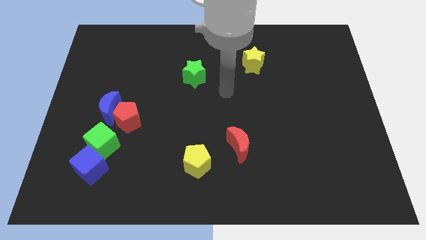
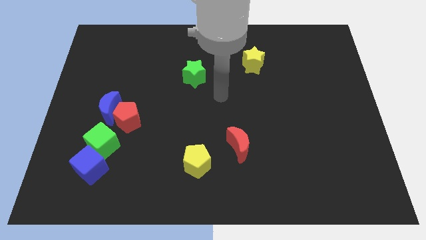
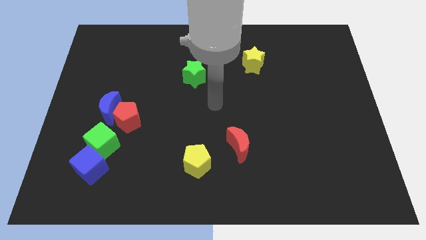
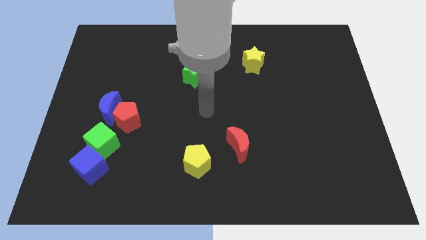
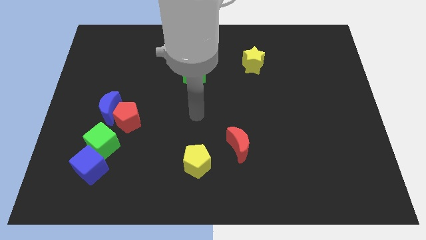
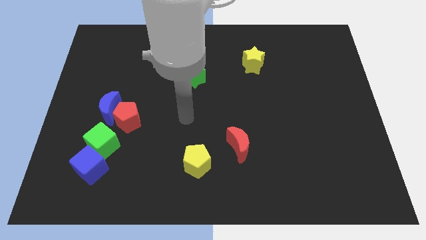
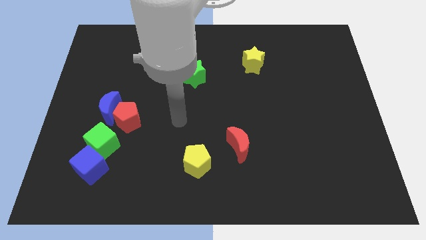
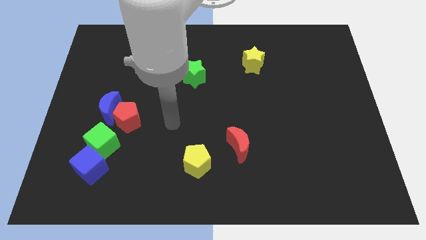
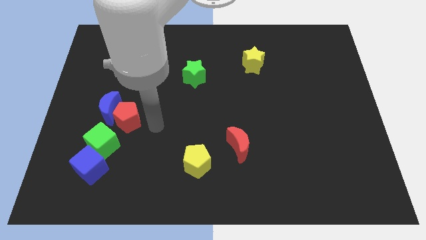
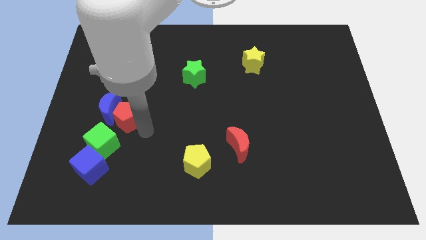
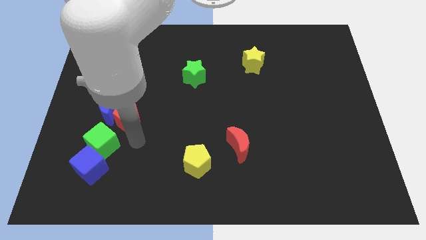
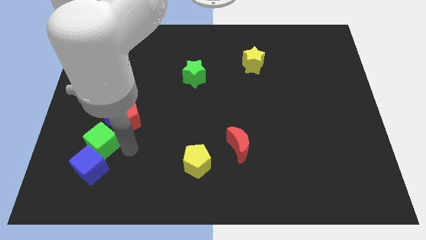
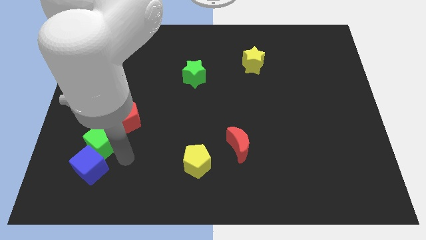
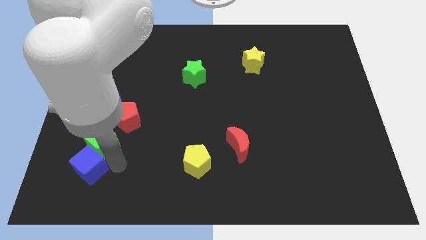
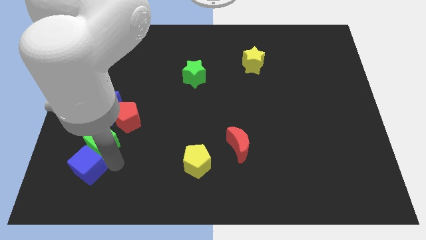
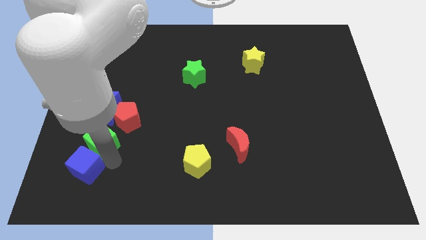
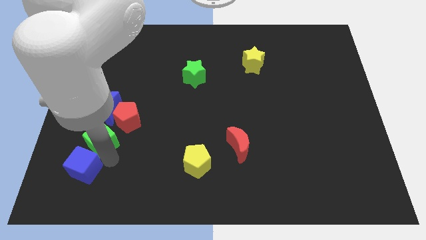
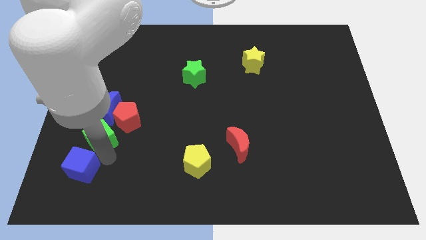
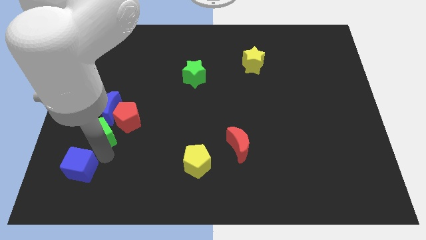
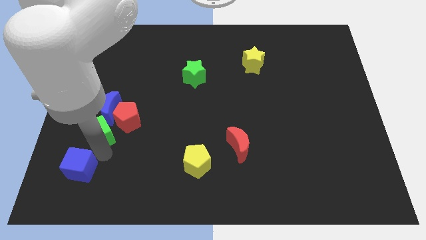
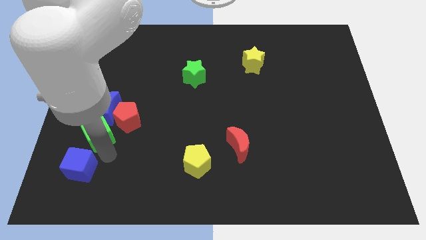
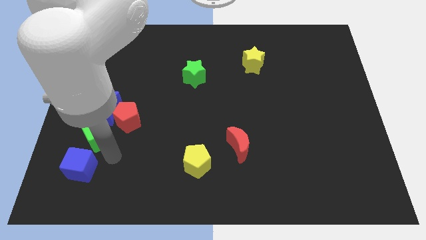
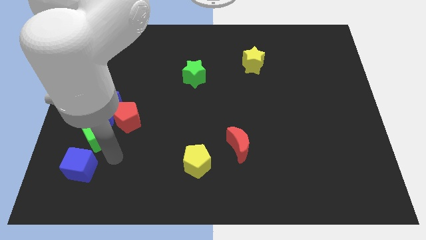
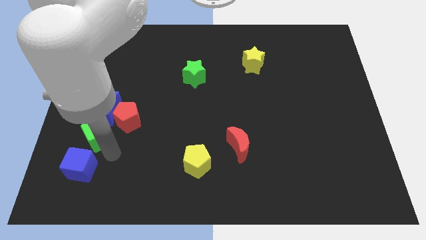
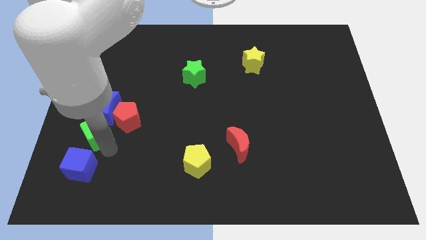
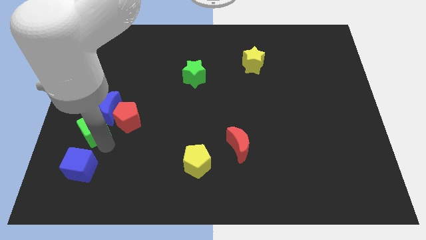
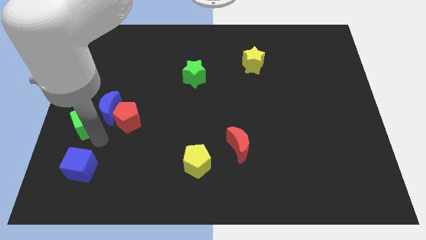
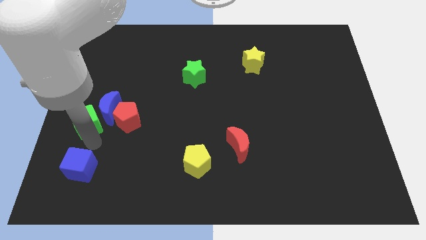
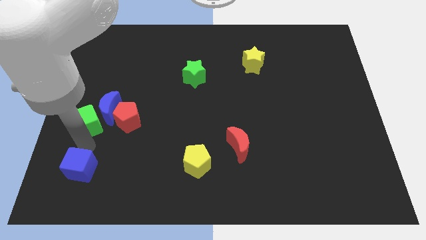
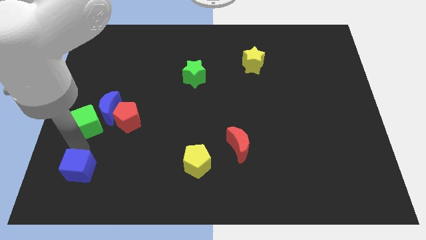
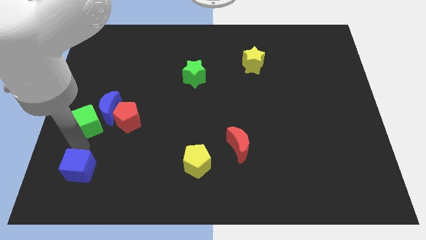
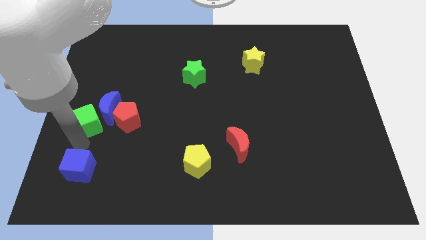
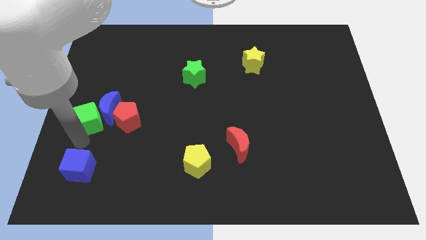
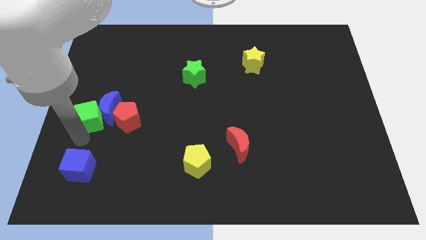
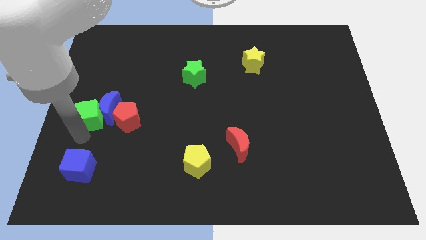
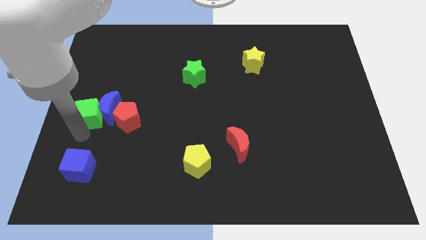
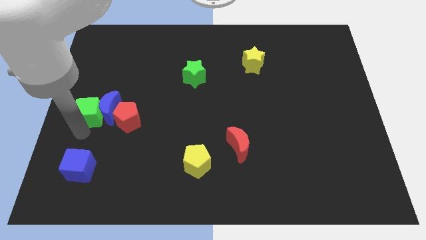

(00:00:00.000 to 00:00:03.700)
push the green cube upwards a little bit

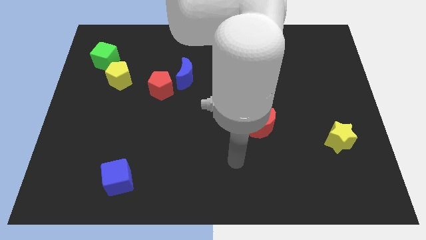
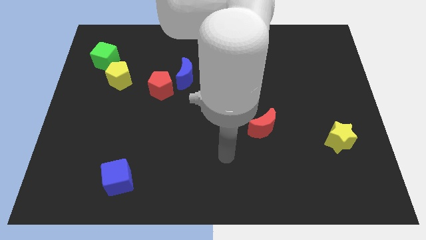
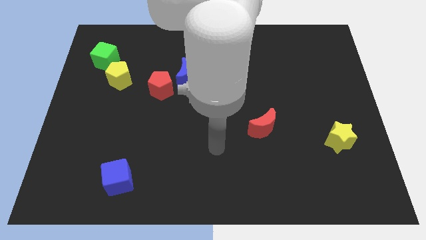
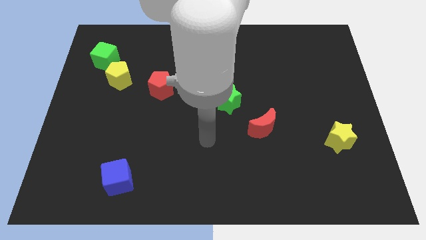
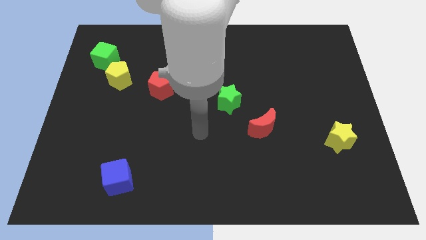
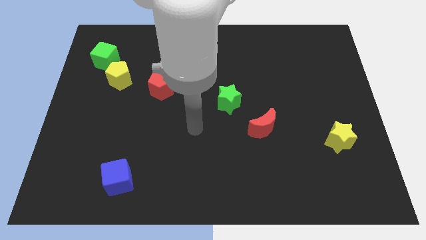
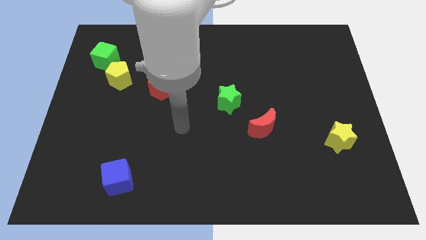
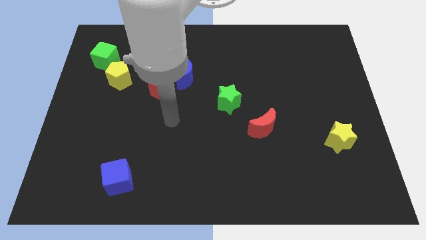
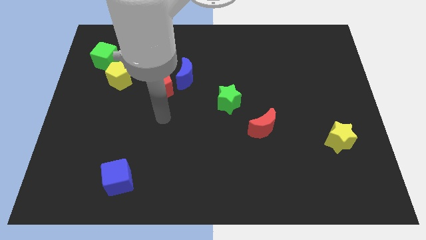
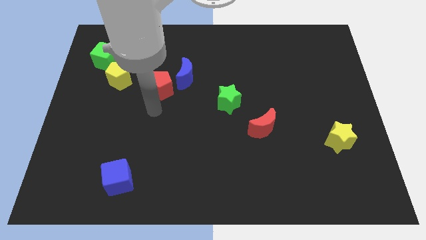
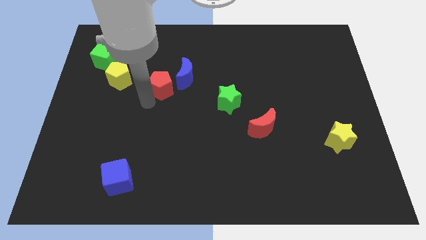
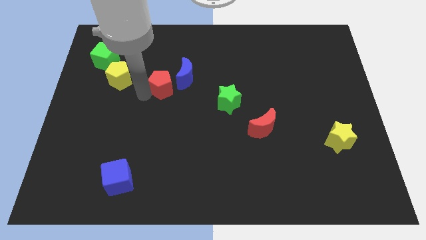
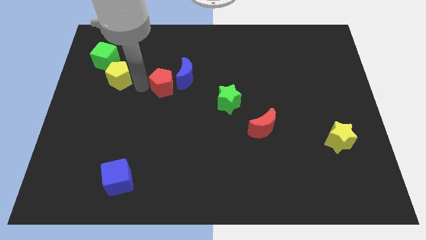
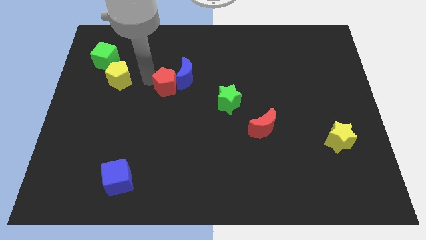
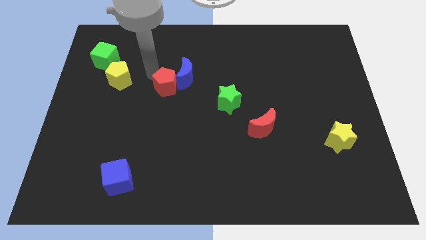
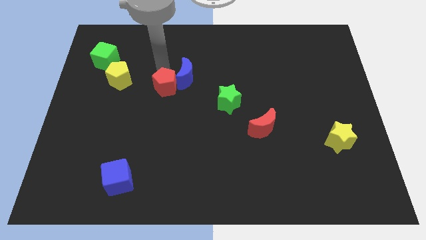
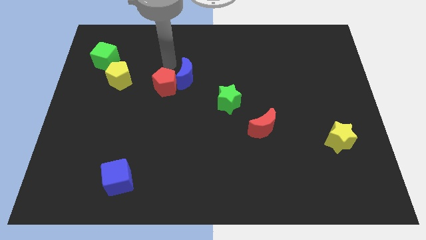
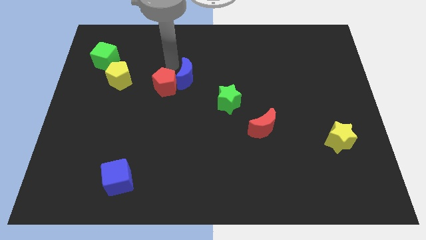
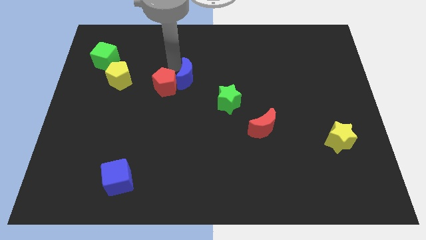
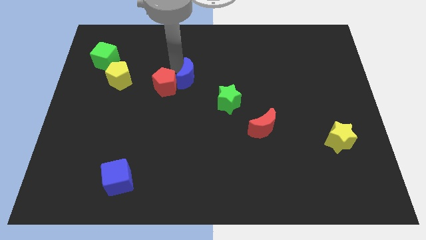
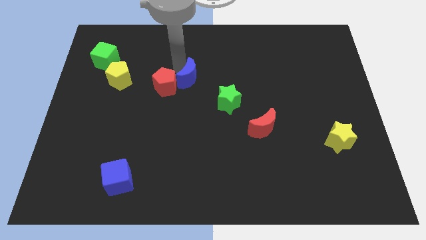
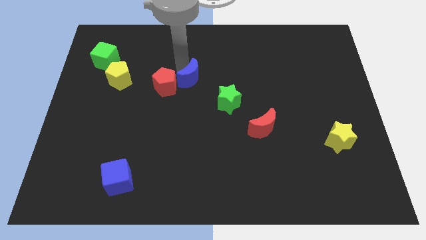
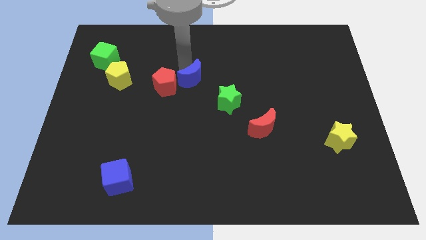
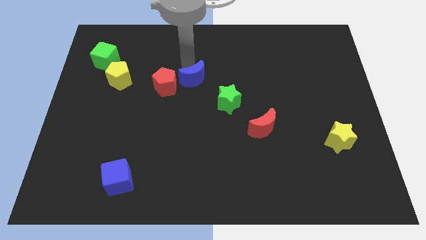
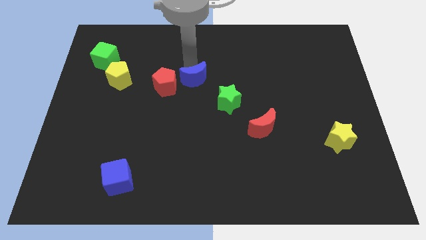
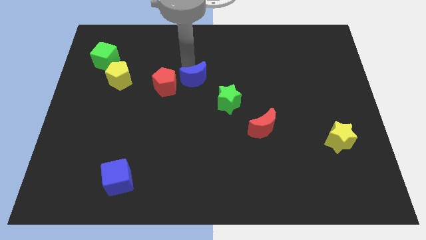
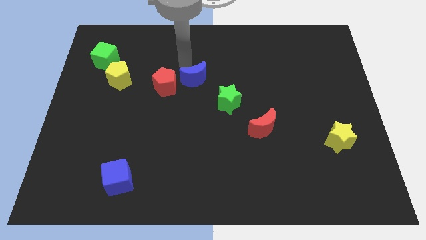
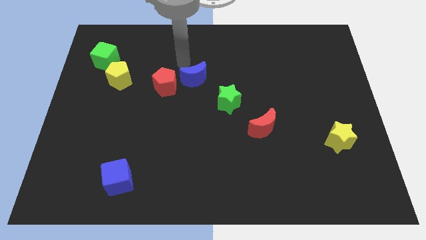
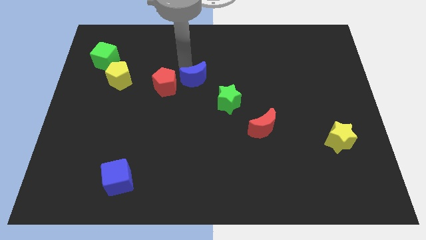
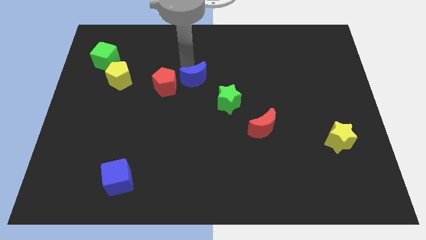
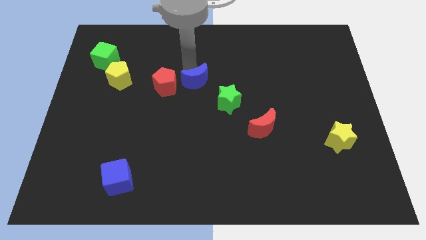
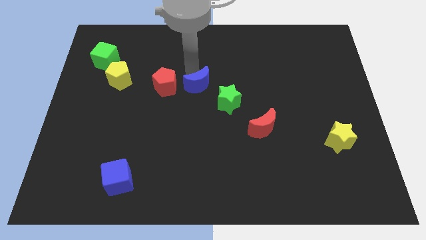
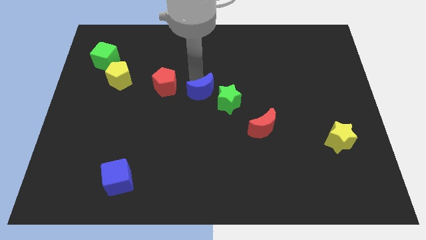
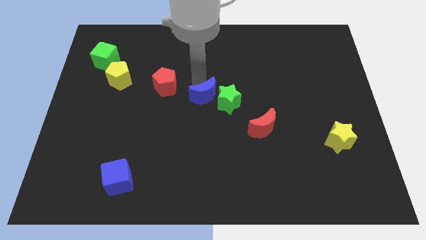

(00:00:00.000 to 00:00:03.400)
slightly move the blue moon down and right

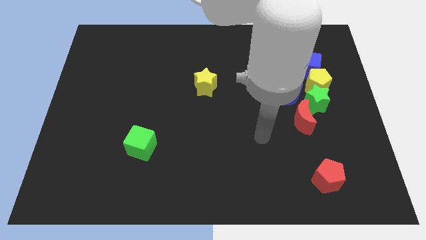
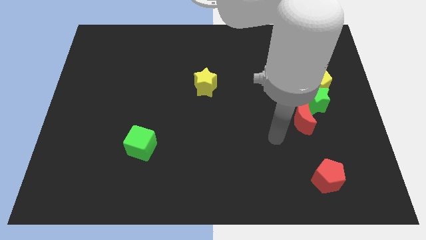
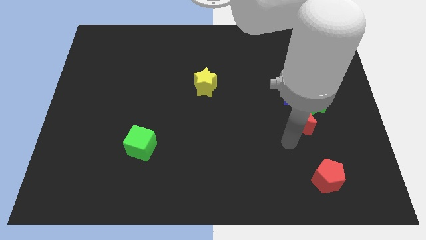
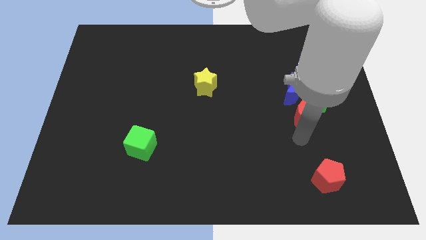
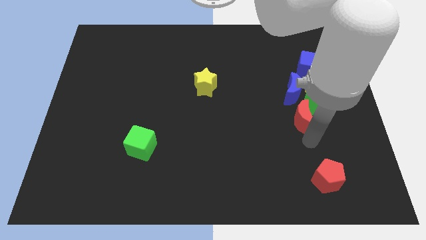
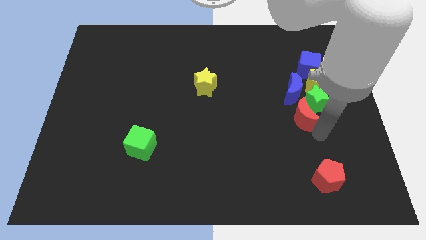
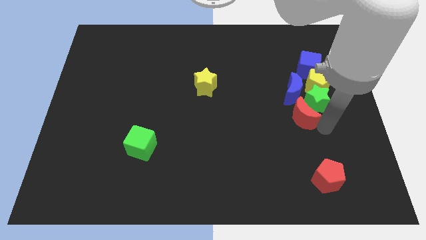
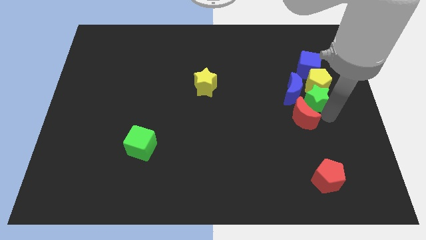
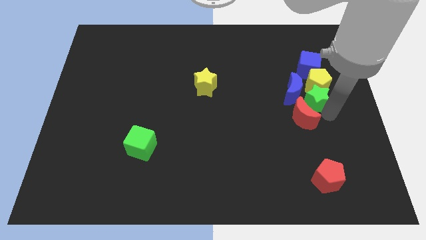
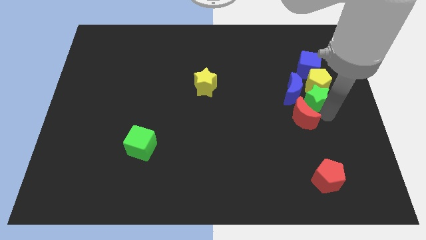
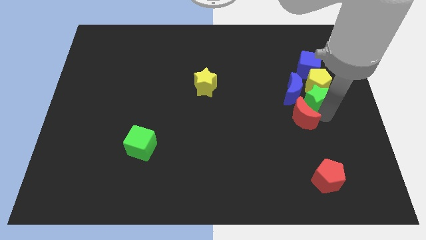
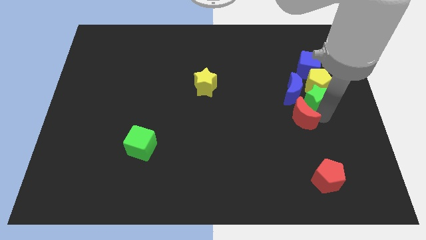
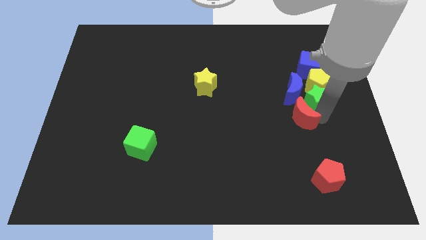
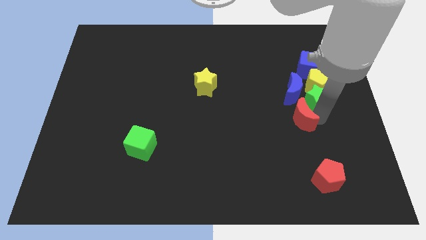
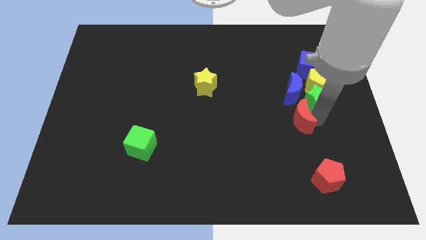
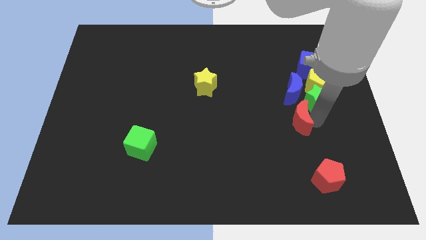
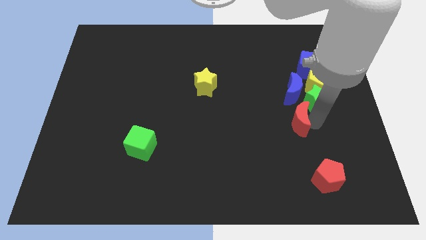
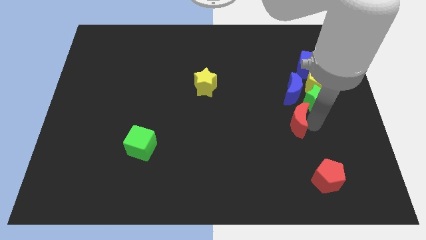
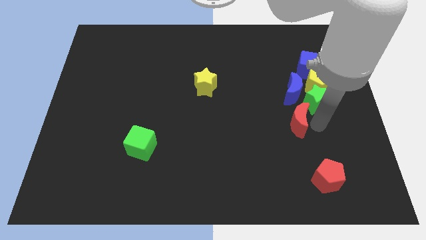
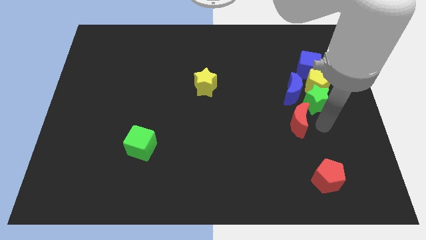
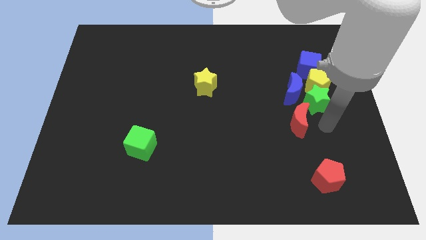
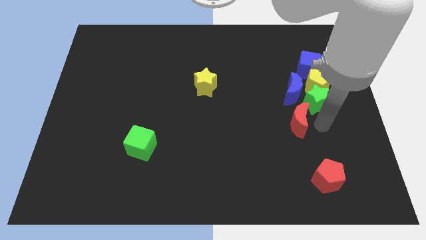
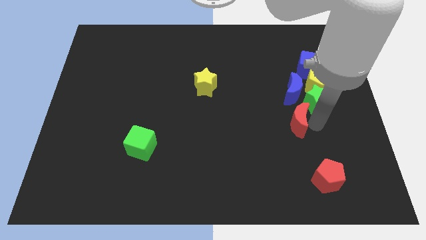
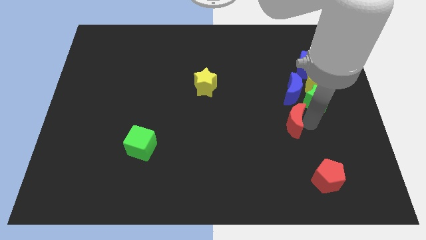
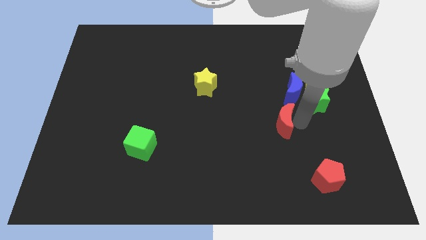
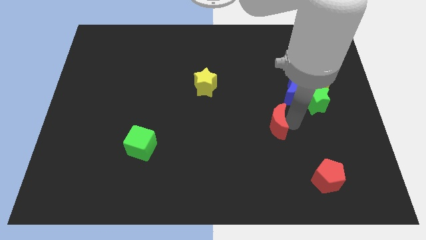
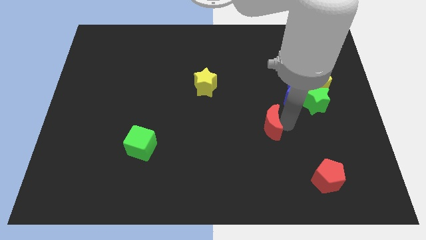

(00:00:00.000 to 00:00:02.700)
slide the red moon left slightly
